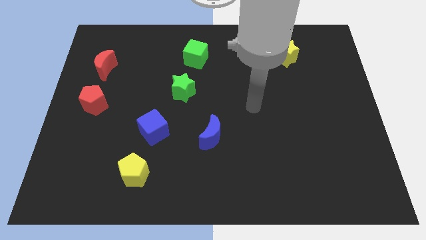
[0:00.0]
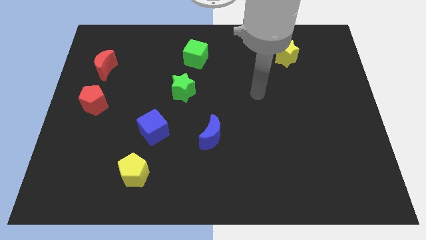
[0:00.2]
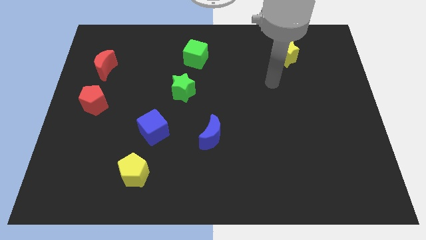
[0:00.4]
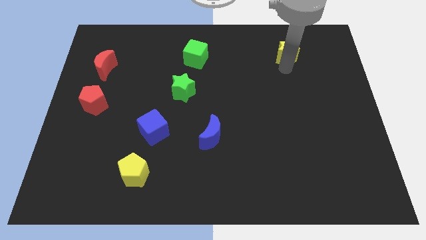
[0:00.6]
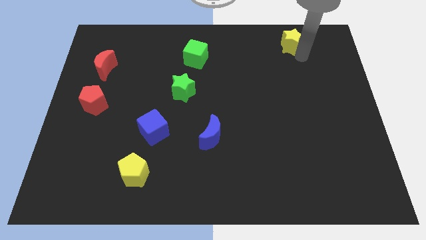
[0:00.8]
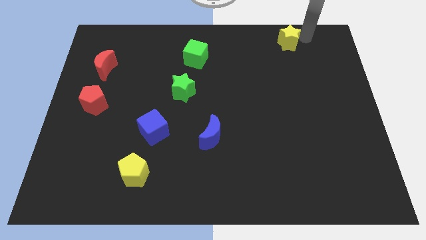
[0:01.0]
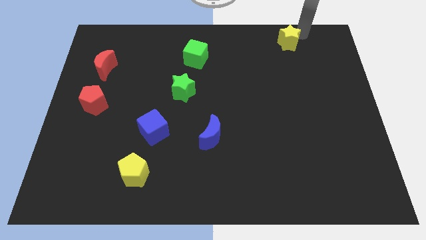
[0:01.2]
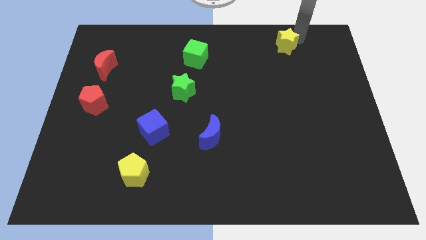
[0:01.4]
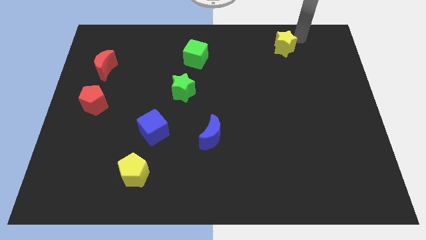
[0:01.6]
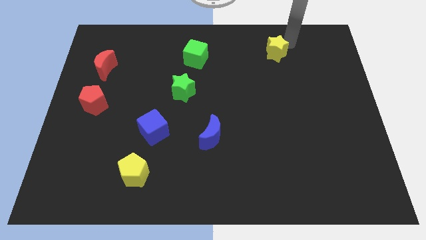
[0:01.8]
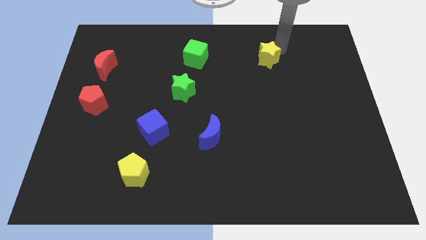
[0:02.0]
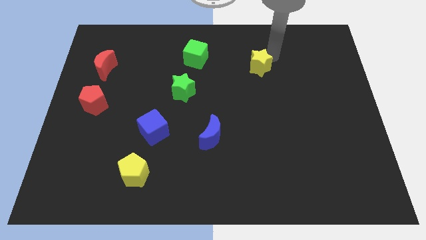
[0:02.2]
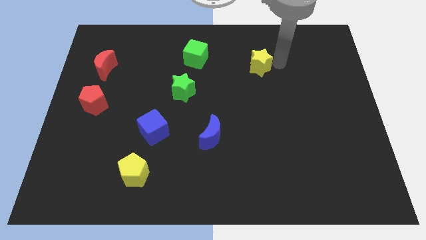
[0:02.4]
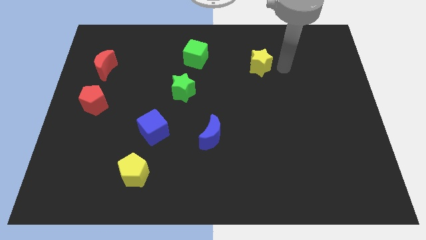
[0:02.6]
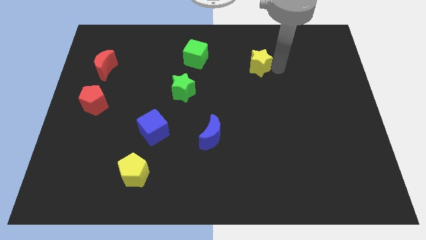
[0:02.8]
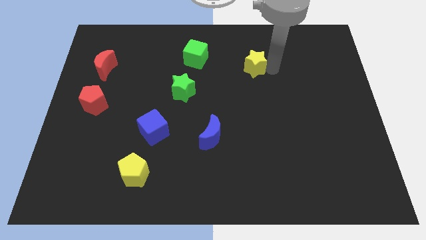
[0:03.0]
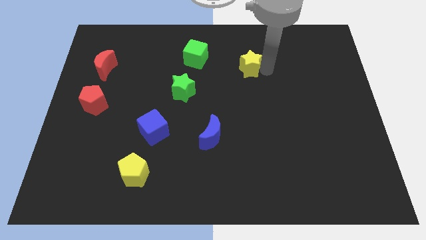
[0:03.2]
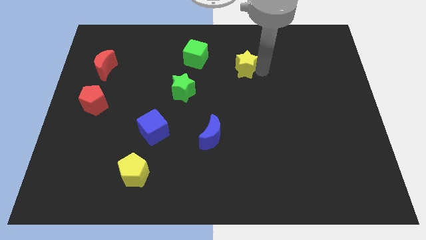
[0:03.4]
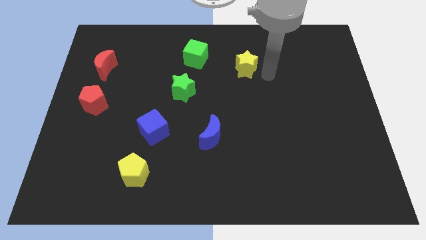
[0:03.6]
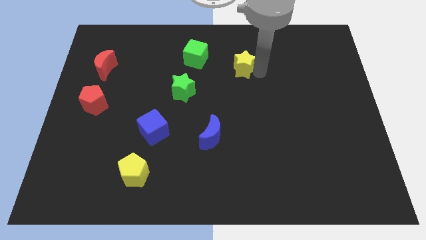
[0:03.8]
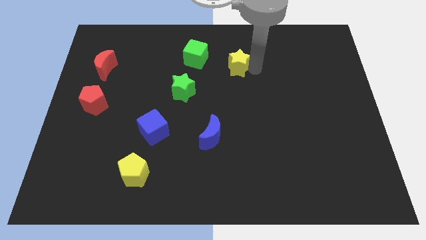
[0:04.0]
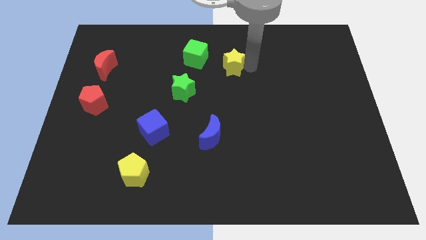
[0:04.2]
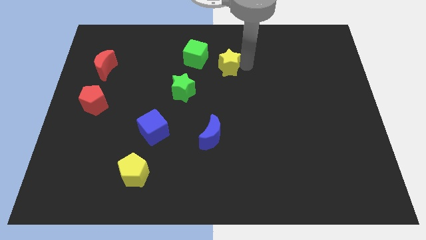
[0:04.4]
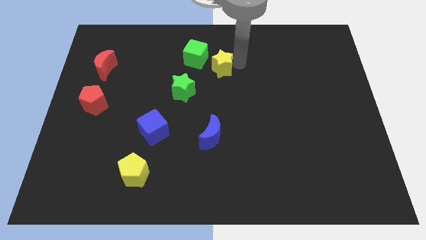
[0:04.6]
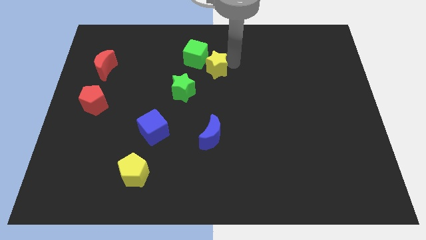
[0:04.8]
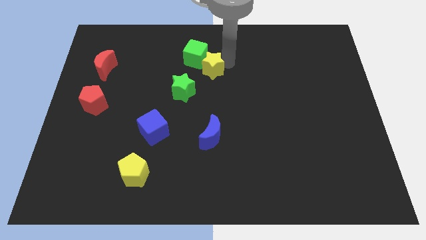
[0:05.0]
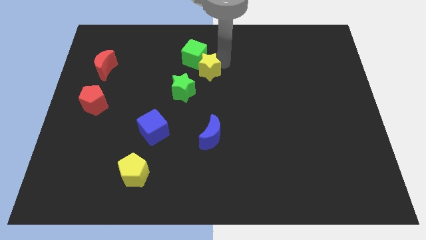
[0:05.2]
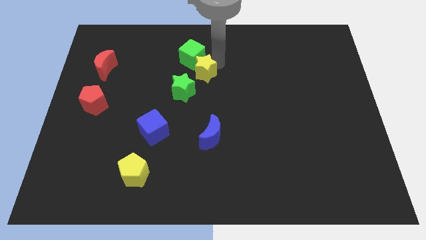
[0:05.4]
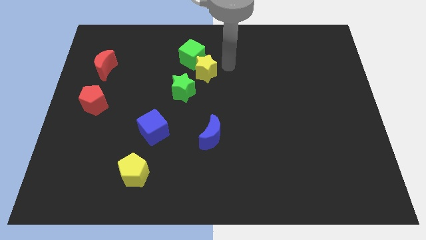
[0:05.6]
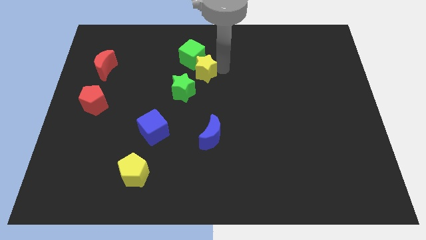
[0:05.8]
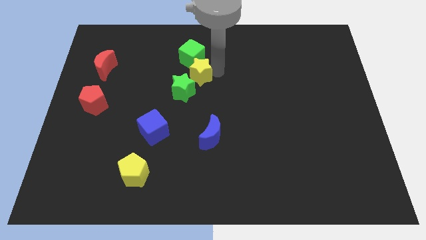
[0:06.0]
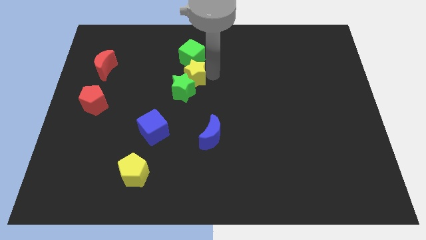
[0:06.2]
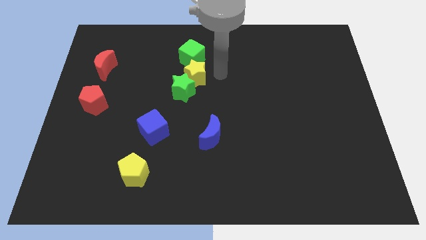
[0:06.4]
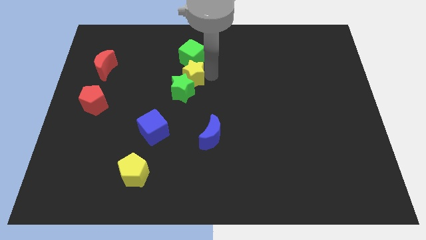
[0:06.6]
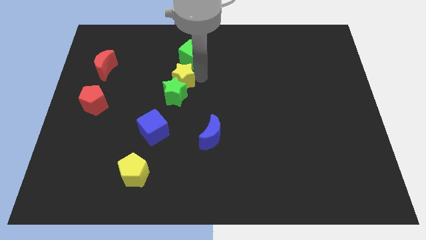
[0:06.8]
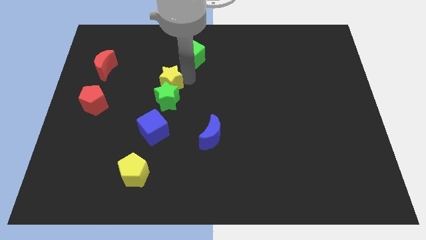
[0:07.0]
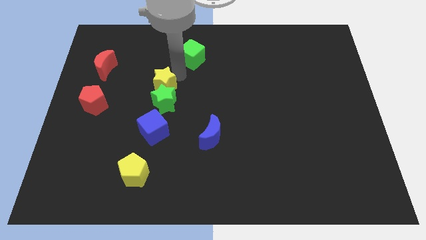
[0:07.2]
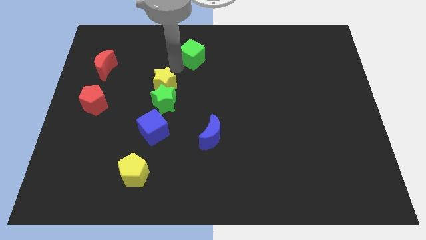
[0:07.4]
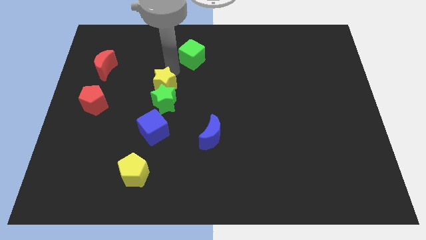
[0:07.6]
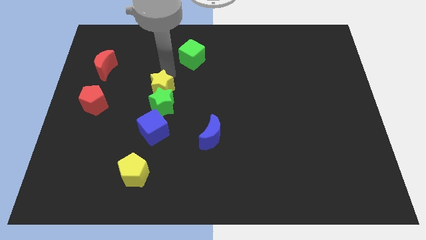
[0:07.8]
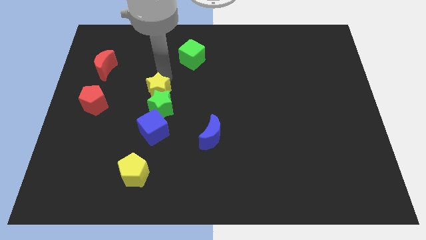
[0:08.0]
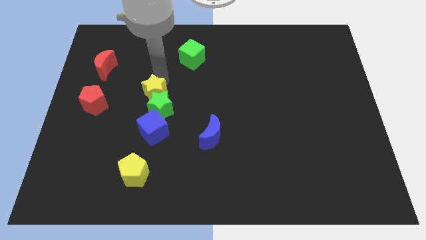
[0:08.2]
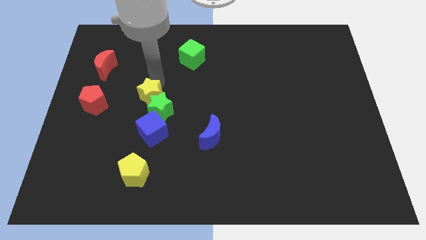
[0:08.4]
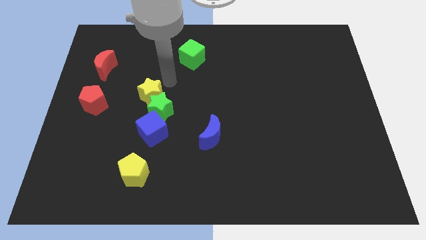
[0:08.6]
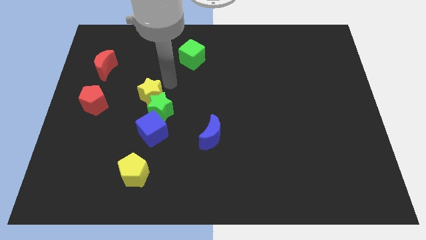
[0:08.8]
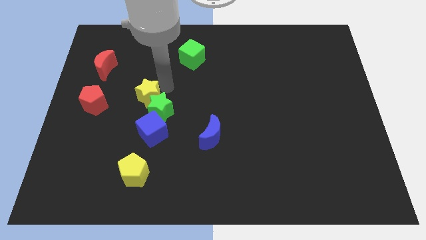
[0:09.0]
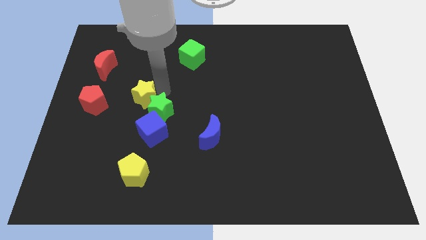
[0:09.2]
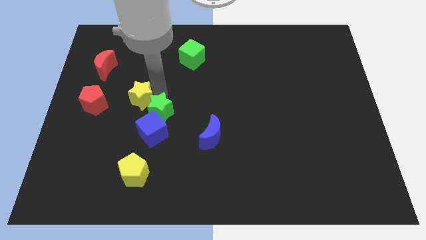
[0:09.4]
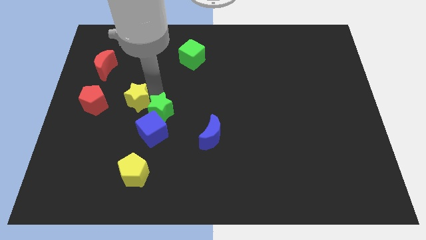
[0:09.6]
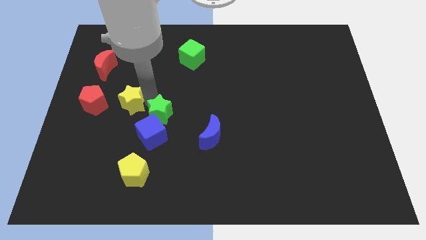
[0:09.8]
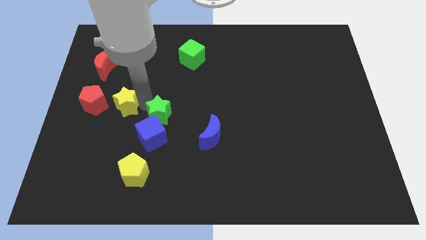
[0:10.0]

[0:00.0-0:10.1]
move the yellow star to the bottom right of the red pentagon

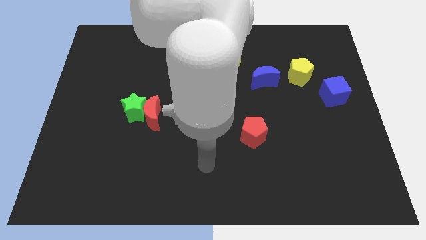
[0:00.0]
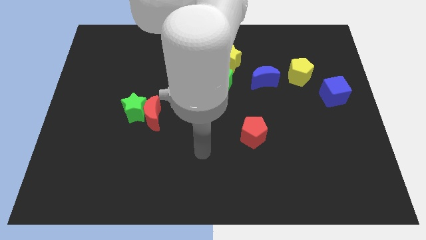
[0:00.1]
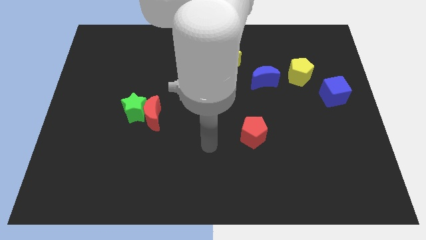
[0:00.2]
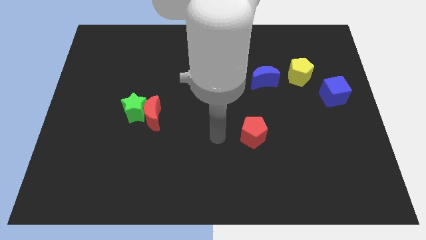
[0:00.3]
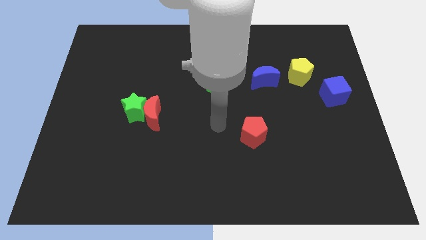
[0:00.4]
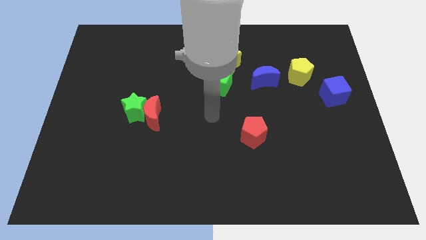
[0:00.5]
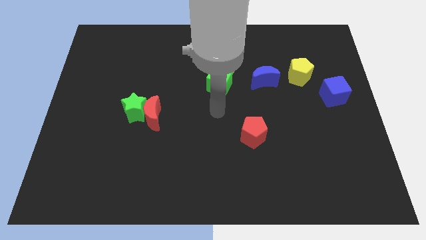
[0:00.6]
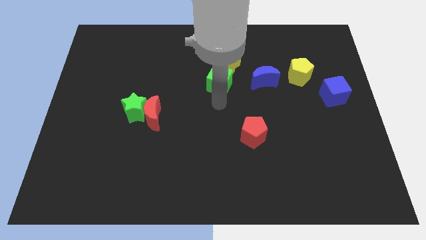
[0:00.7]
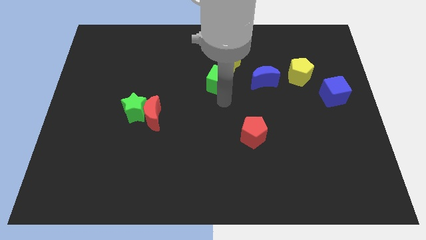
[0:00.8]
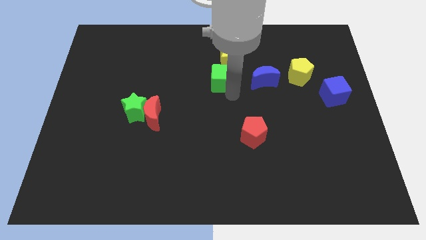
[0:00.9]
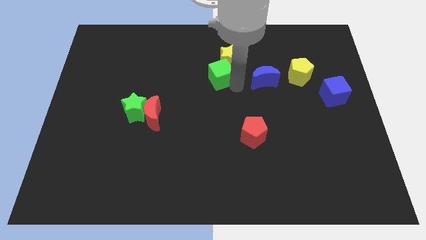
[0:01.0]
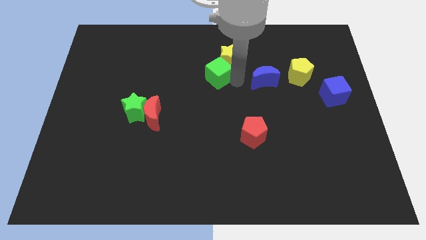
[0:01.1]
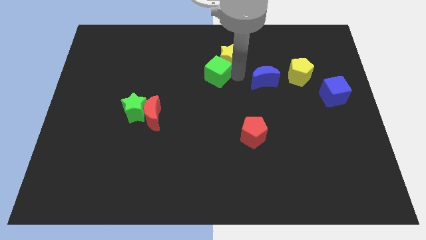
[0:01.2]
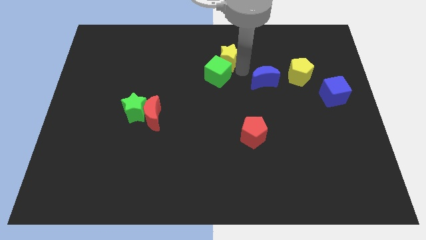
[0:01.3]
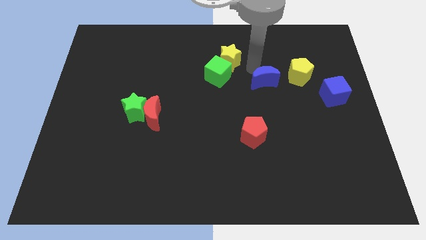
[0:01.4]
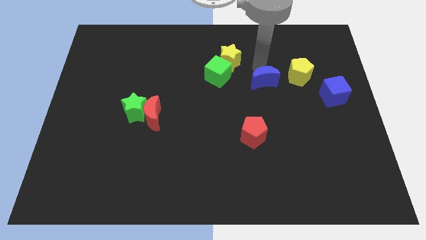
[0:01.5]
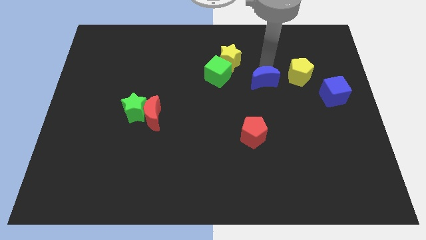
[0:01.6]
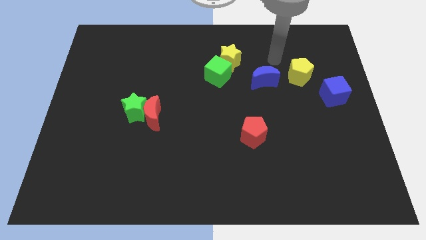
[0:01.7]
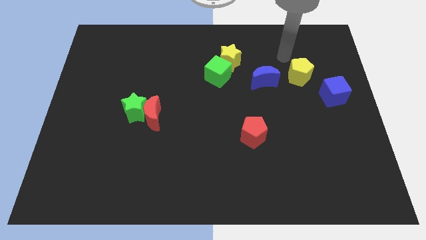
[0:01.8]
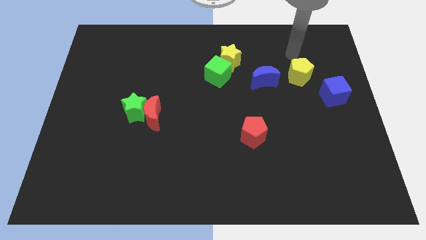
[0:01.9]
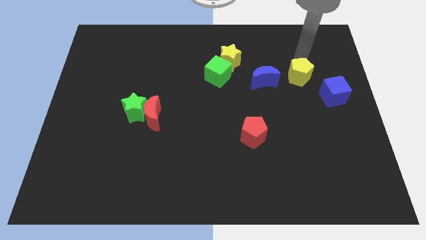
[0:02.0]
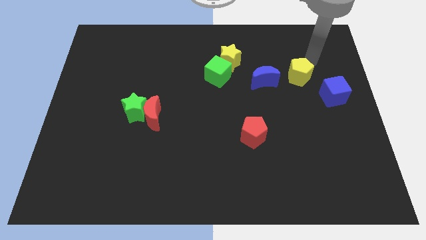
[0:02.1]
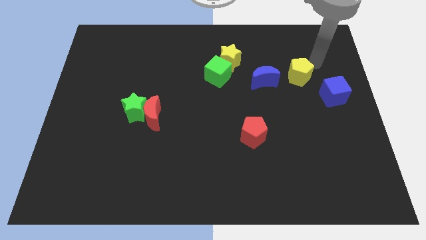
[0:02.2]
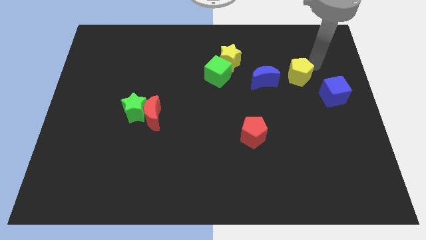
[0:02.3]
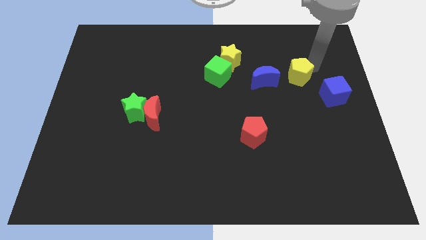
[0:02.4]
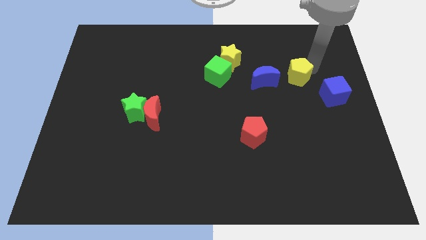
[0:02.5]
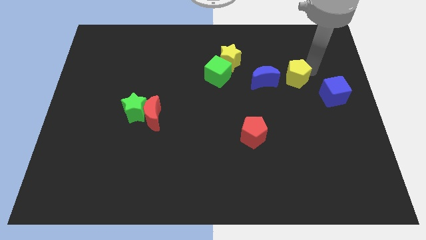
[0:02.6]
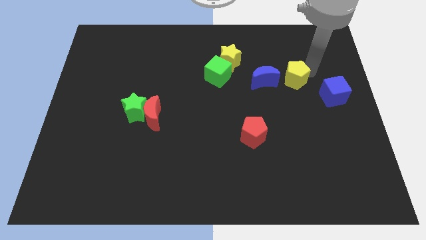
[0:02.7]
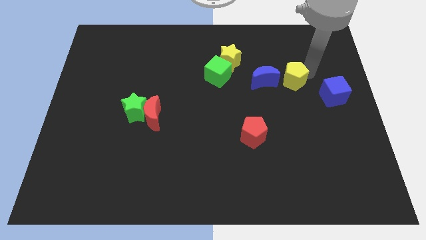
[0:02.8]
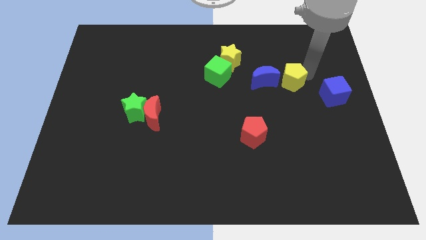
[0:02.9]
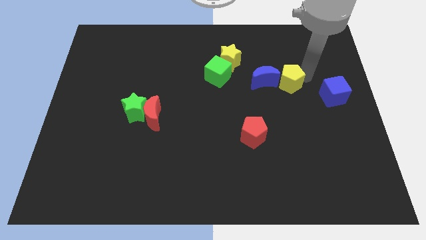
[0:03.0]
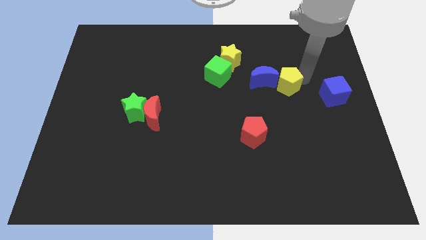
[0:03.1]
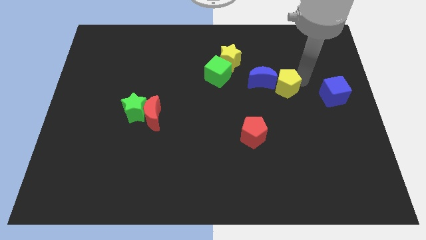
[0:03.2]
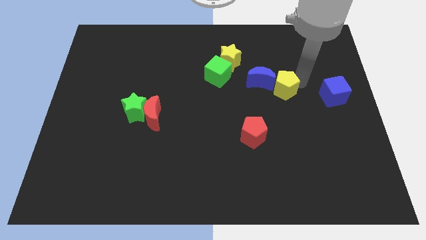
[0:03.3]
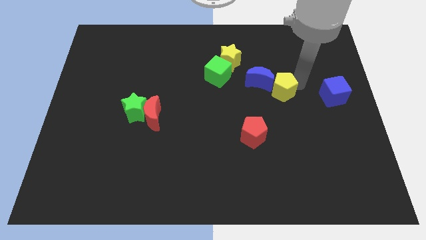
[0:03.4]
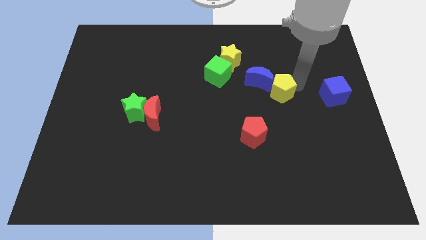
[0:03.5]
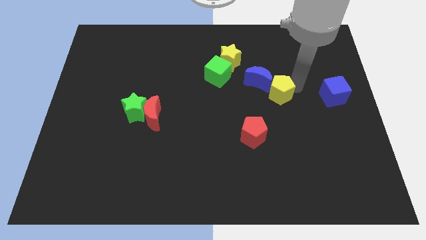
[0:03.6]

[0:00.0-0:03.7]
slide the yellow pentagon below the blue moon
